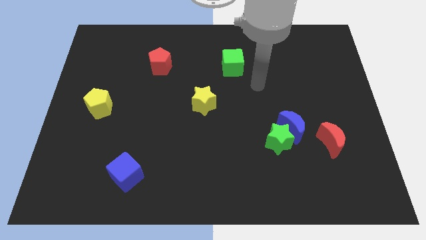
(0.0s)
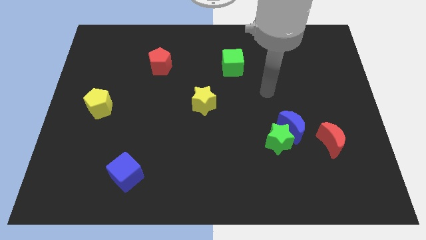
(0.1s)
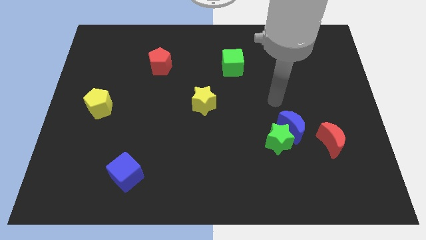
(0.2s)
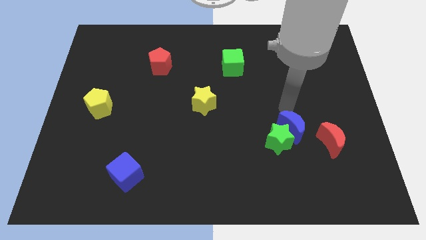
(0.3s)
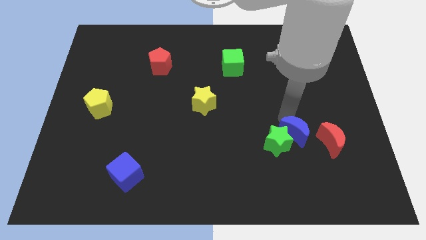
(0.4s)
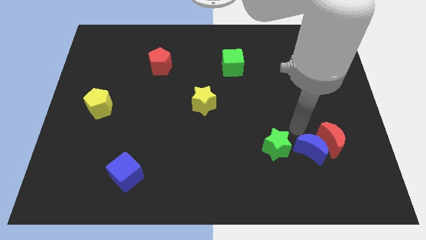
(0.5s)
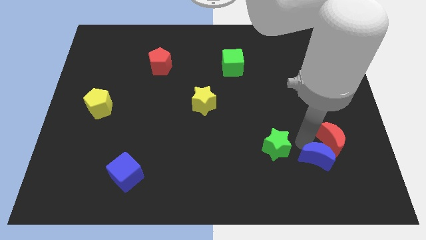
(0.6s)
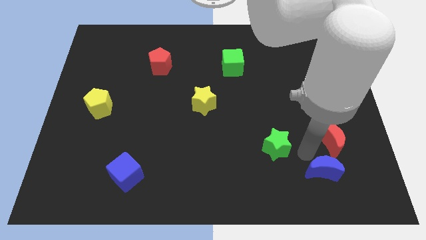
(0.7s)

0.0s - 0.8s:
move the green star away from the blue moon

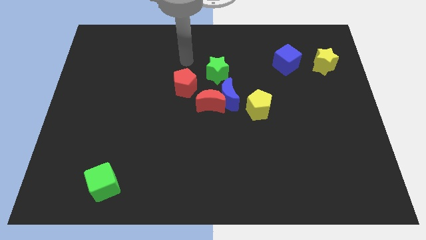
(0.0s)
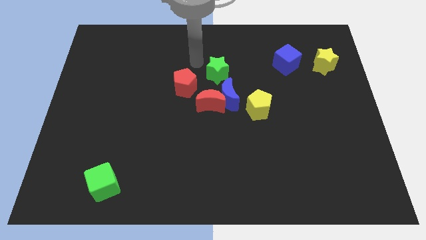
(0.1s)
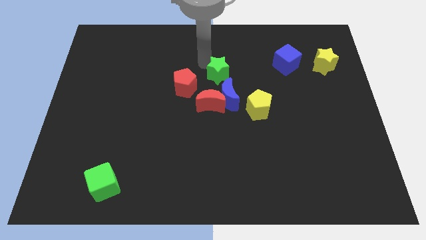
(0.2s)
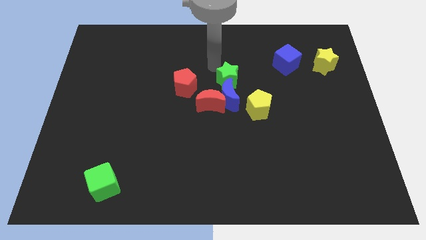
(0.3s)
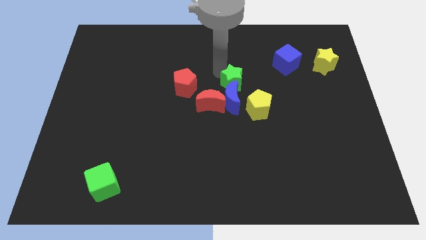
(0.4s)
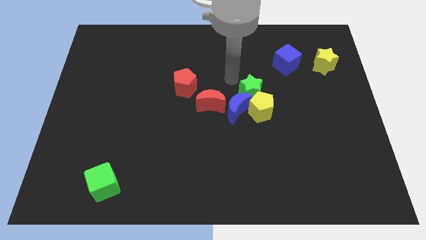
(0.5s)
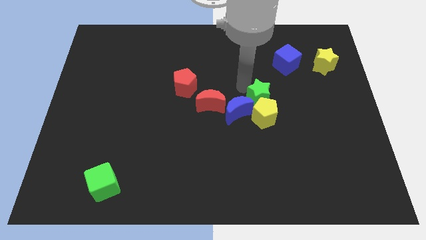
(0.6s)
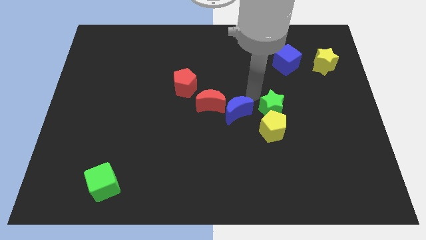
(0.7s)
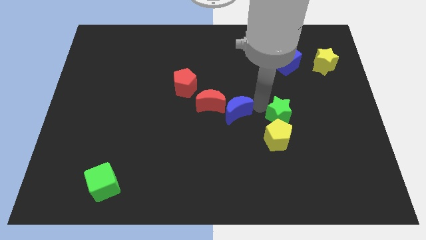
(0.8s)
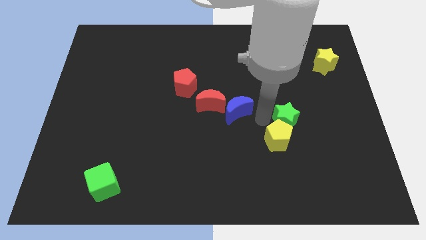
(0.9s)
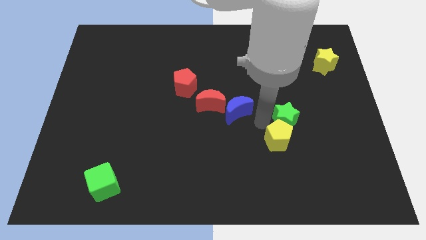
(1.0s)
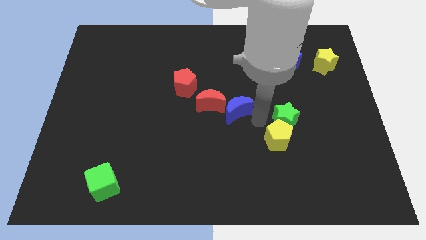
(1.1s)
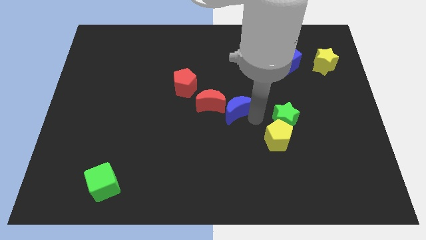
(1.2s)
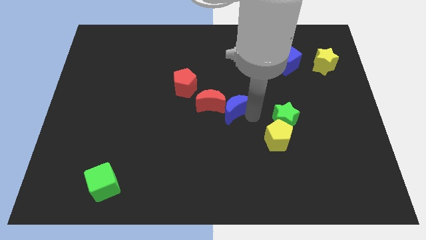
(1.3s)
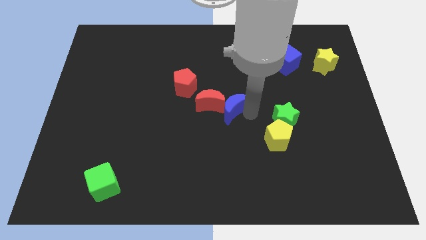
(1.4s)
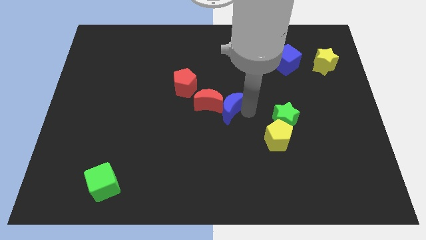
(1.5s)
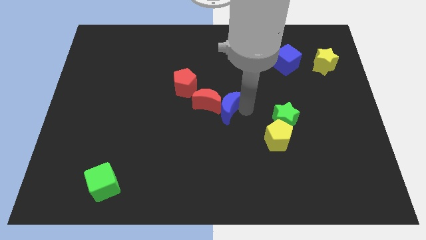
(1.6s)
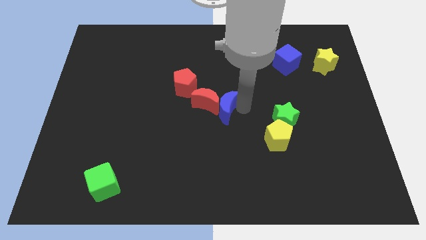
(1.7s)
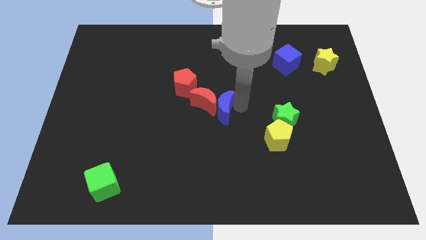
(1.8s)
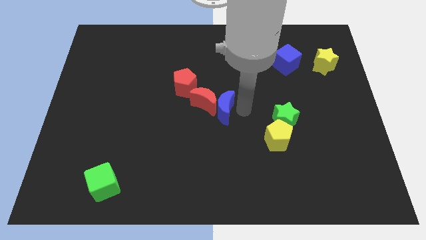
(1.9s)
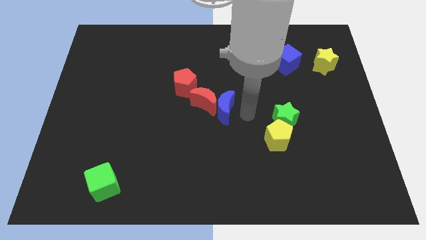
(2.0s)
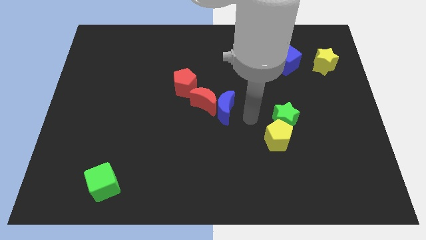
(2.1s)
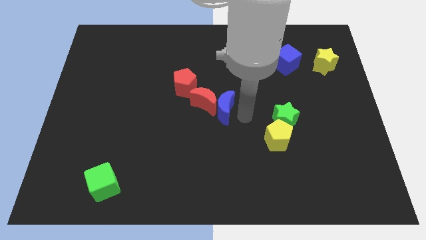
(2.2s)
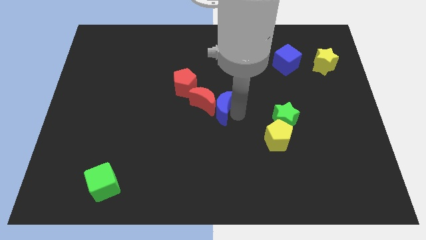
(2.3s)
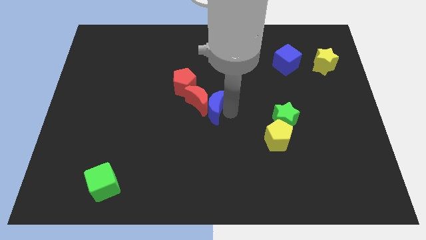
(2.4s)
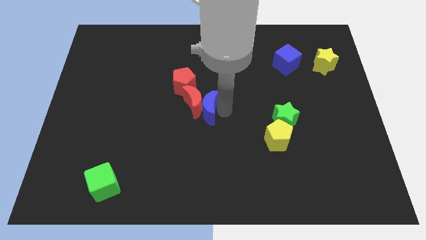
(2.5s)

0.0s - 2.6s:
move the blue moon away from the red moon, yellow pentagon, and green star

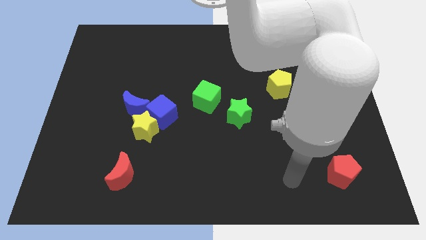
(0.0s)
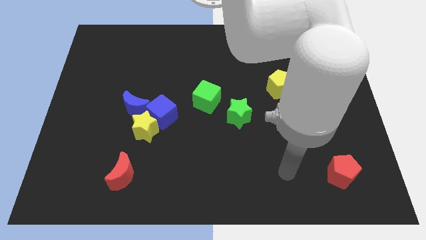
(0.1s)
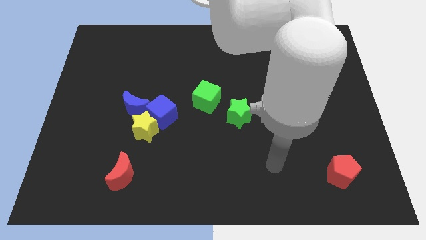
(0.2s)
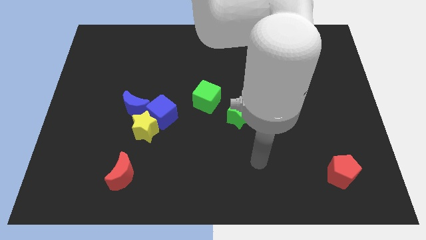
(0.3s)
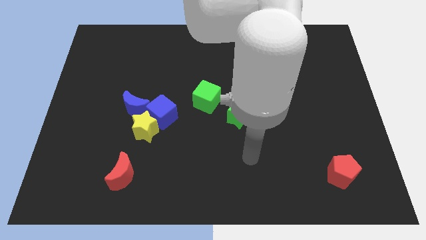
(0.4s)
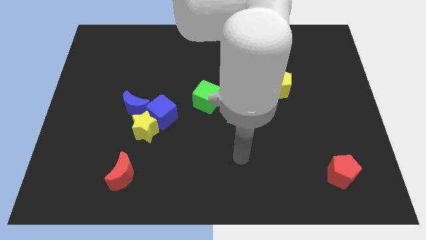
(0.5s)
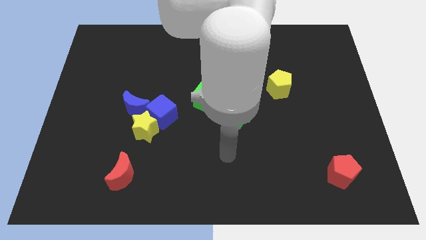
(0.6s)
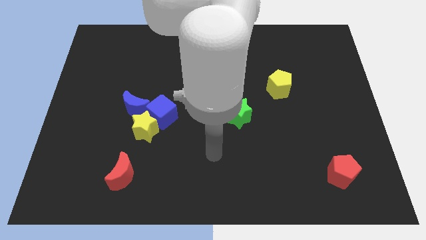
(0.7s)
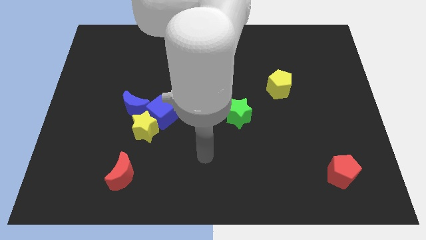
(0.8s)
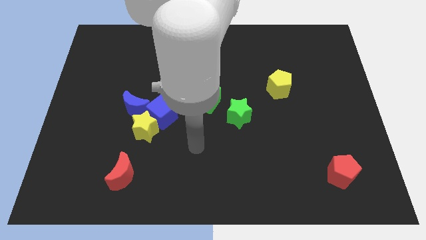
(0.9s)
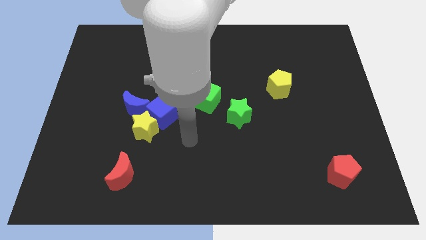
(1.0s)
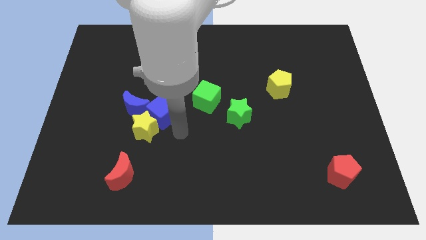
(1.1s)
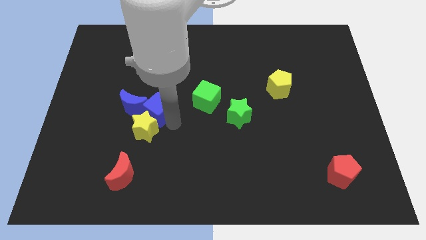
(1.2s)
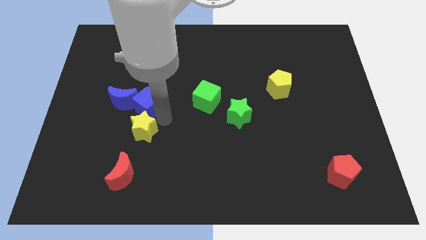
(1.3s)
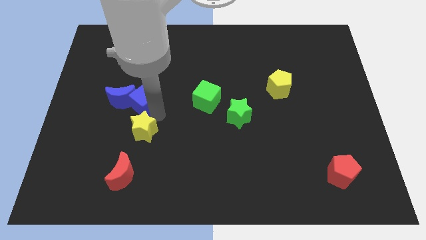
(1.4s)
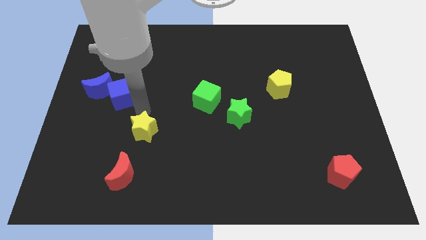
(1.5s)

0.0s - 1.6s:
pull the yellow star apart from the blue cube and blue moon

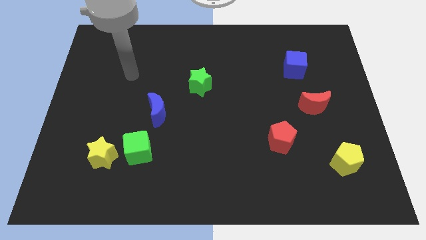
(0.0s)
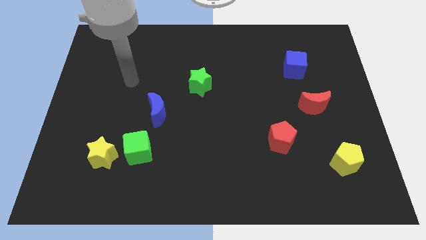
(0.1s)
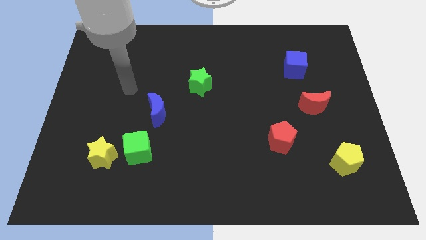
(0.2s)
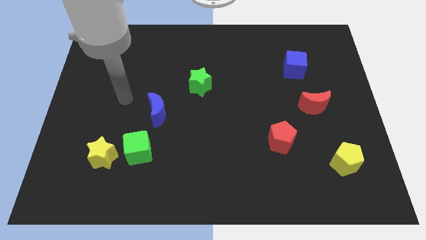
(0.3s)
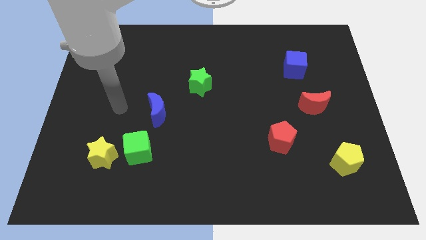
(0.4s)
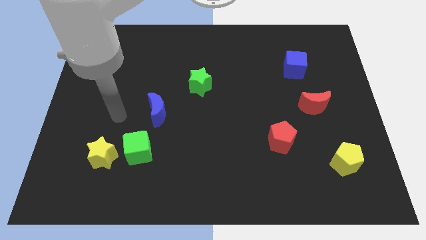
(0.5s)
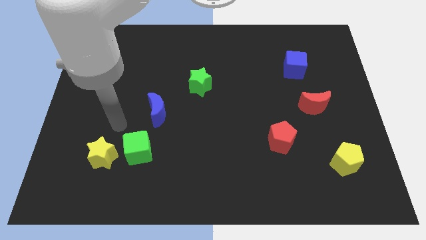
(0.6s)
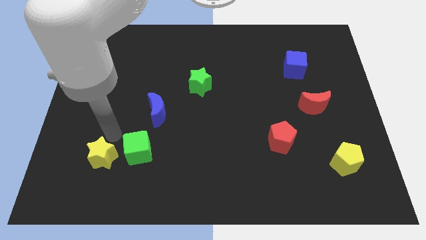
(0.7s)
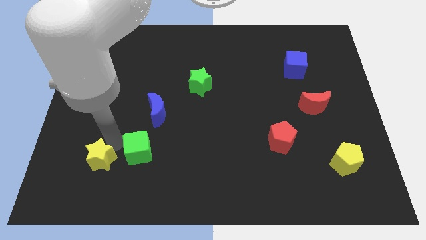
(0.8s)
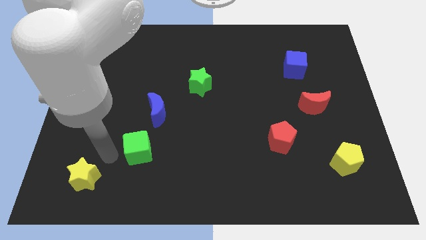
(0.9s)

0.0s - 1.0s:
move the green cube away from the yellow star

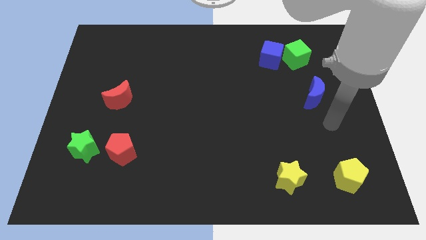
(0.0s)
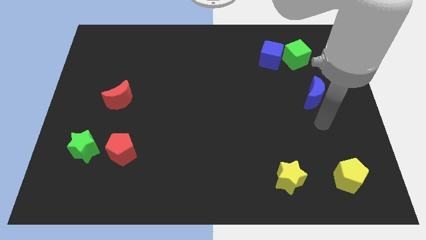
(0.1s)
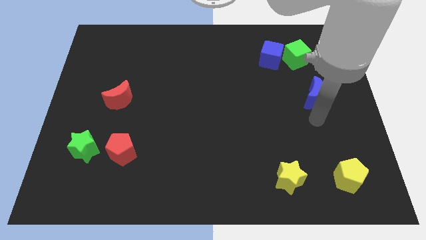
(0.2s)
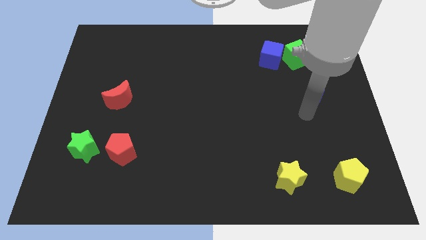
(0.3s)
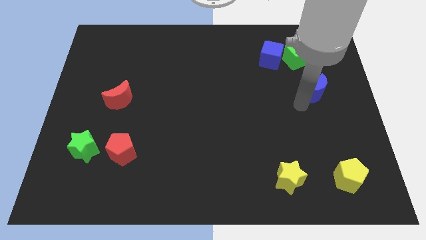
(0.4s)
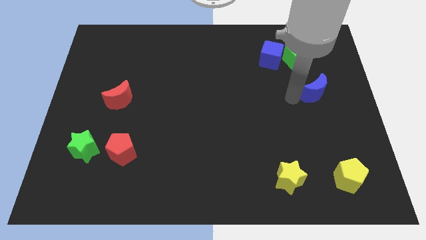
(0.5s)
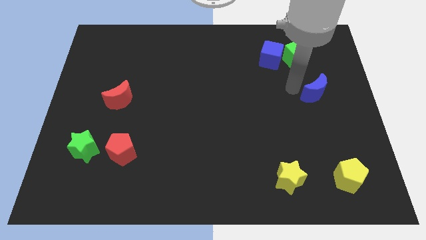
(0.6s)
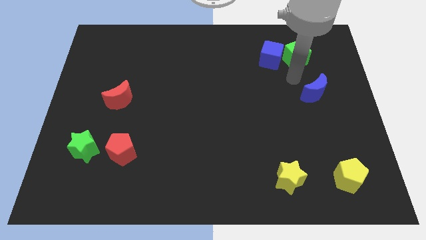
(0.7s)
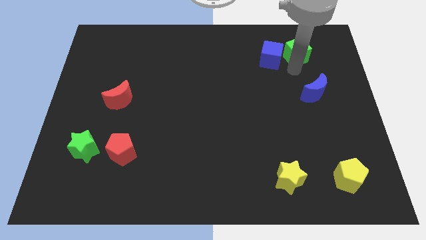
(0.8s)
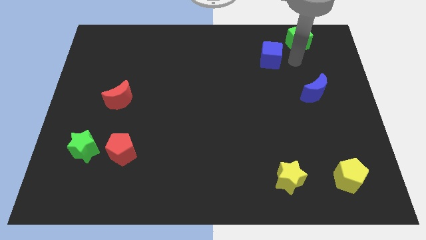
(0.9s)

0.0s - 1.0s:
separate the blue cube from the green cube

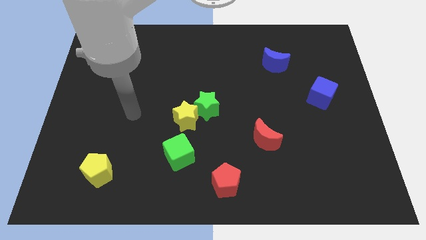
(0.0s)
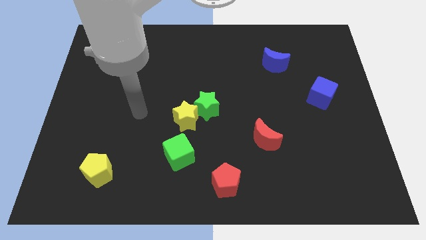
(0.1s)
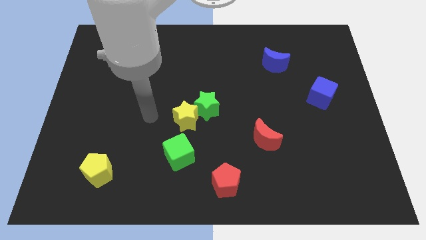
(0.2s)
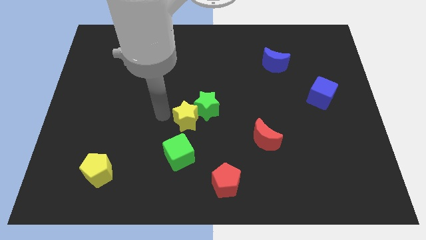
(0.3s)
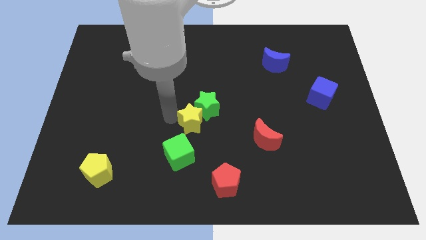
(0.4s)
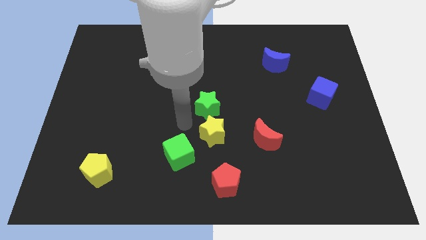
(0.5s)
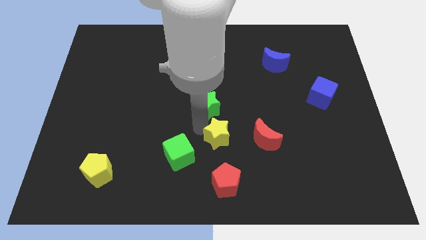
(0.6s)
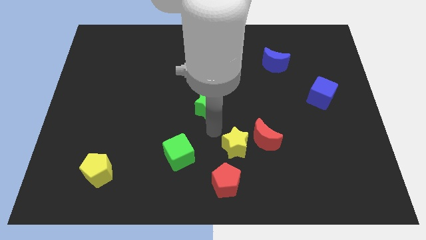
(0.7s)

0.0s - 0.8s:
pull the green star apart from the yellow star

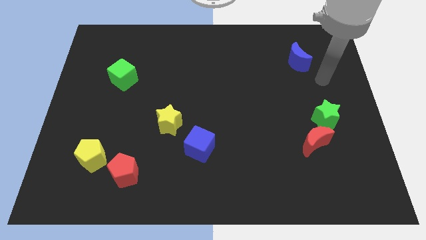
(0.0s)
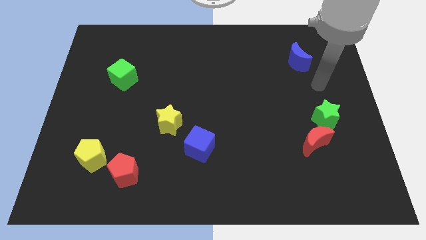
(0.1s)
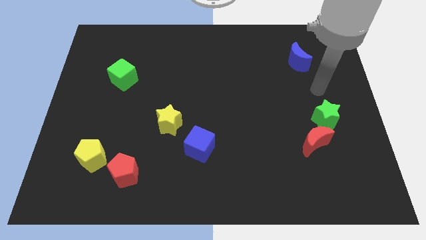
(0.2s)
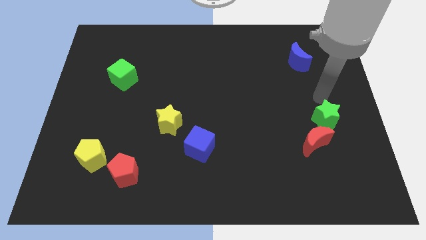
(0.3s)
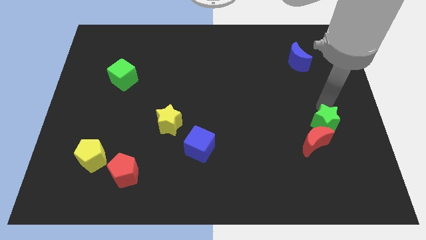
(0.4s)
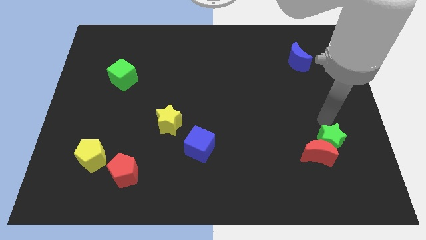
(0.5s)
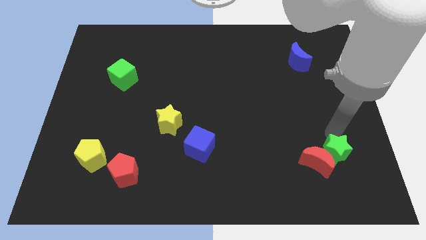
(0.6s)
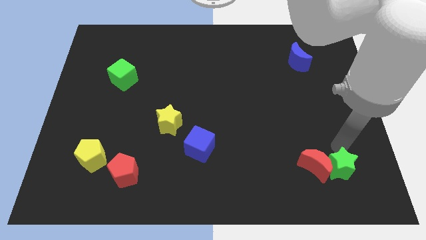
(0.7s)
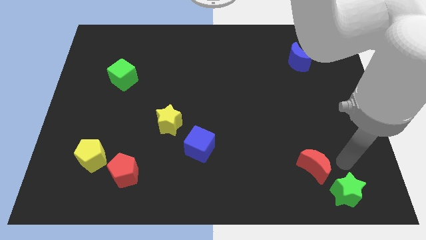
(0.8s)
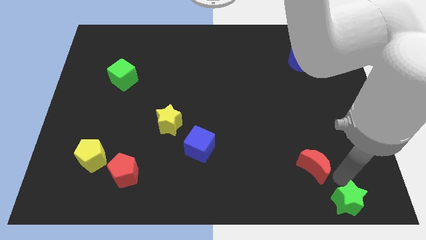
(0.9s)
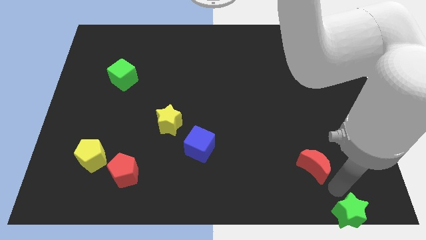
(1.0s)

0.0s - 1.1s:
pull the red moon apart from the green star

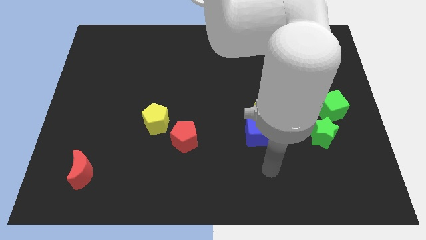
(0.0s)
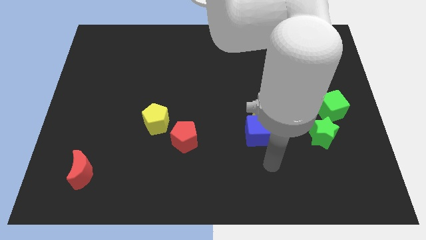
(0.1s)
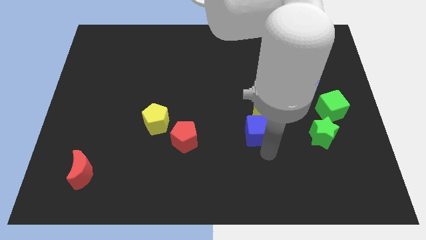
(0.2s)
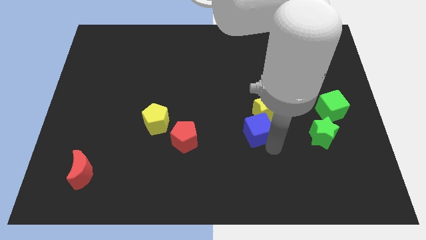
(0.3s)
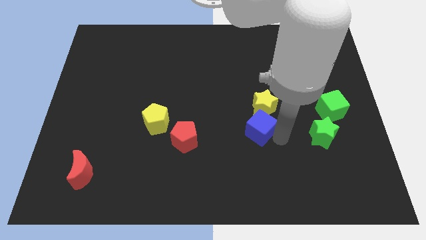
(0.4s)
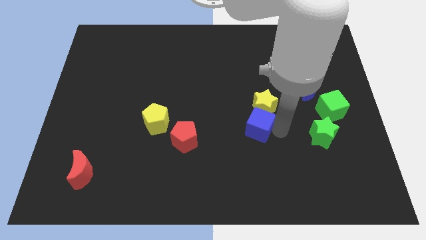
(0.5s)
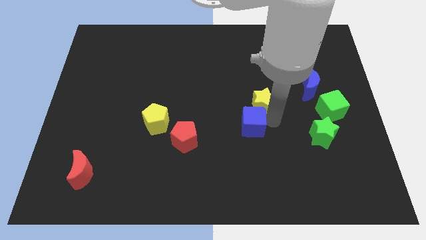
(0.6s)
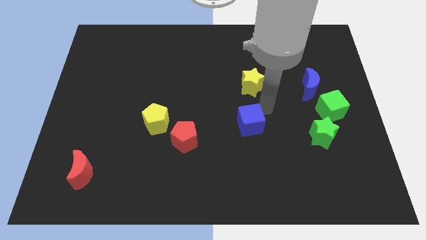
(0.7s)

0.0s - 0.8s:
separate the blue cube from the yellow star
